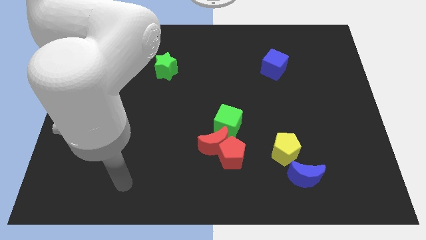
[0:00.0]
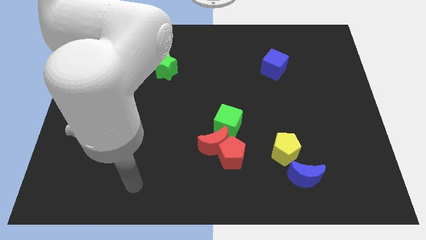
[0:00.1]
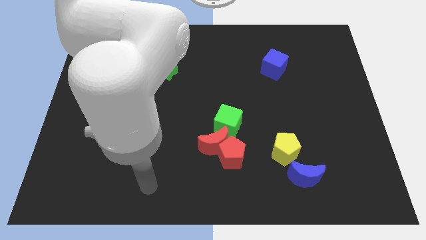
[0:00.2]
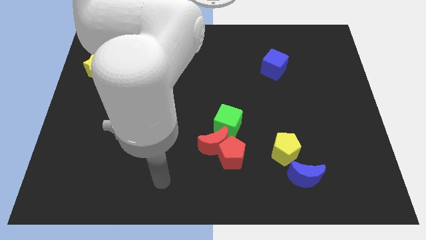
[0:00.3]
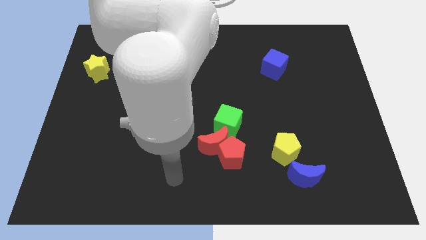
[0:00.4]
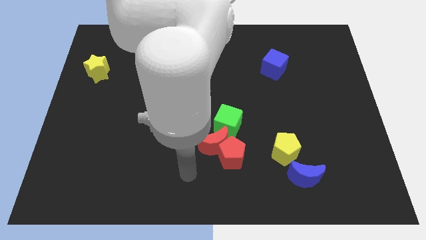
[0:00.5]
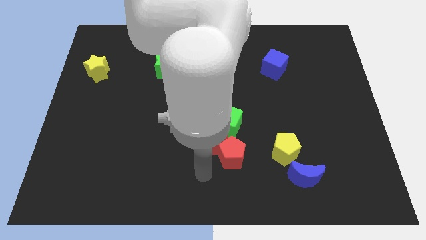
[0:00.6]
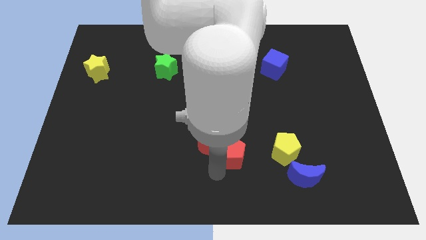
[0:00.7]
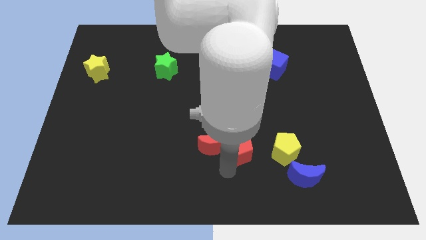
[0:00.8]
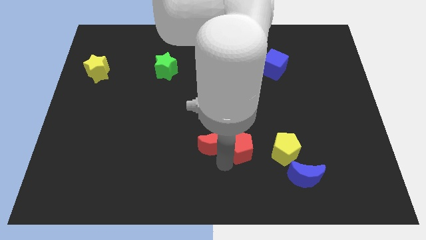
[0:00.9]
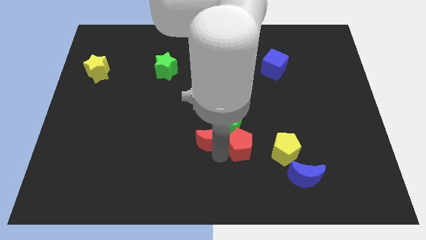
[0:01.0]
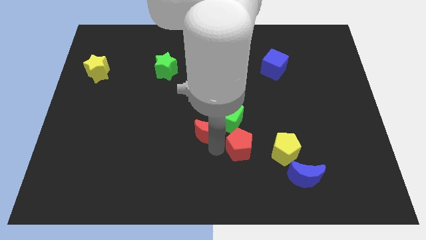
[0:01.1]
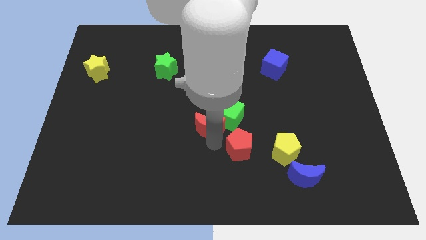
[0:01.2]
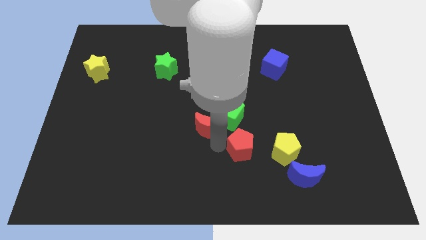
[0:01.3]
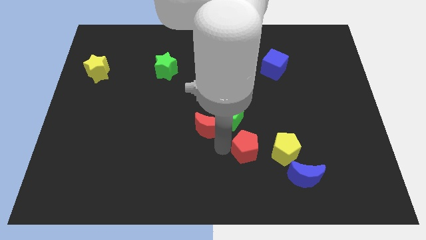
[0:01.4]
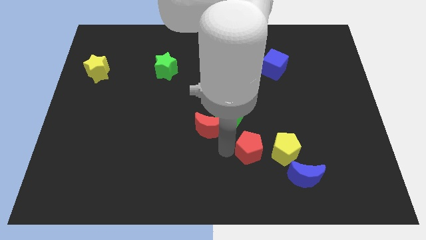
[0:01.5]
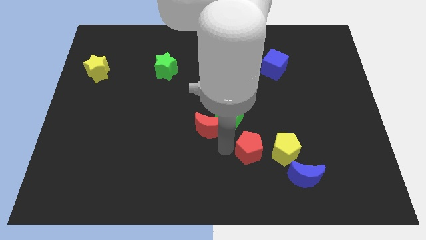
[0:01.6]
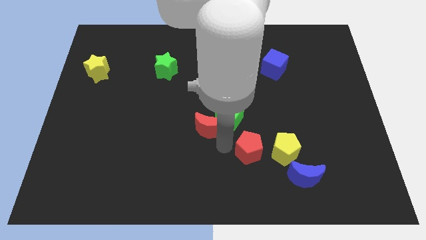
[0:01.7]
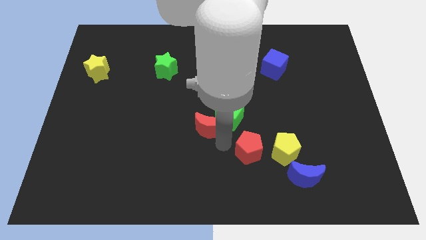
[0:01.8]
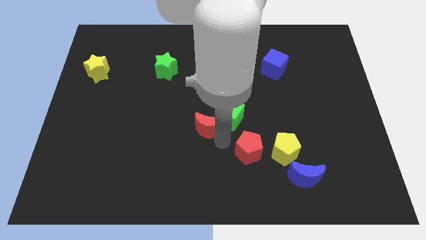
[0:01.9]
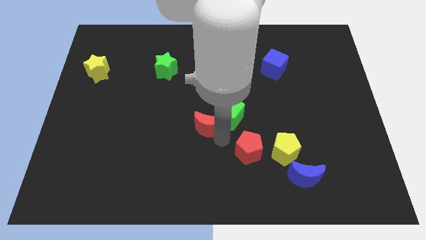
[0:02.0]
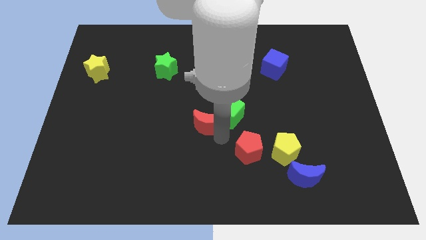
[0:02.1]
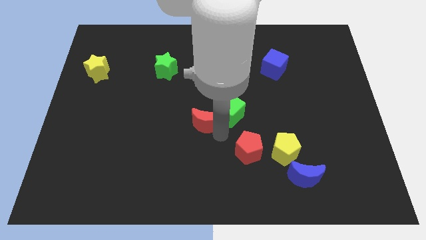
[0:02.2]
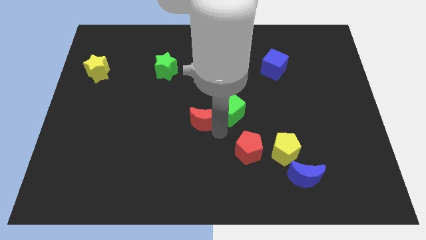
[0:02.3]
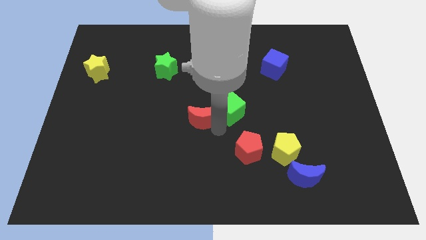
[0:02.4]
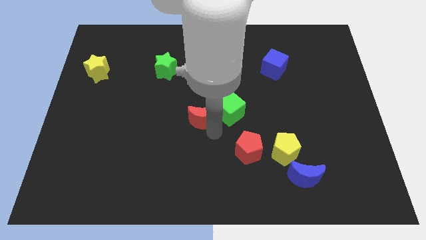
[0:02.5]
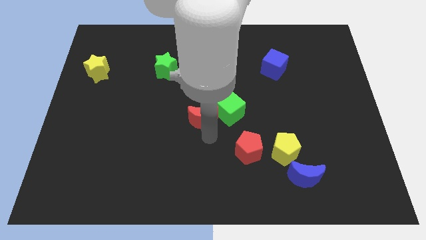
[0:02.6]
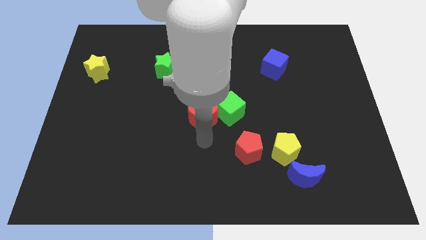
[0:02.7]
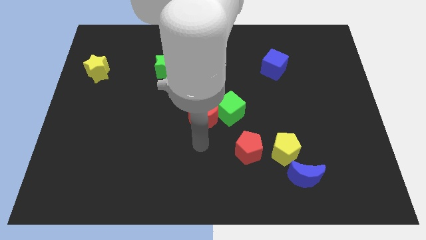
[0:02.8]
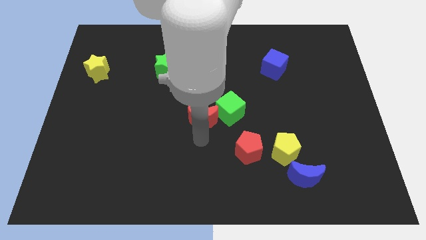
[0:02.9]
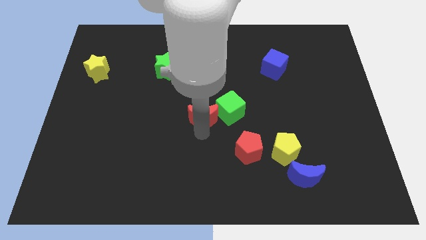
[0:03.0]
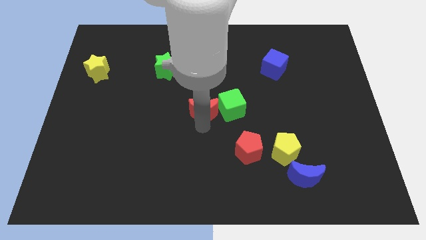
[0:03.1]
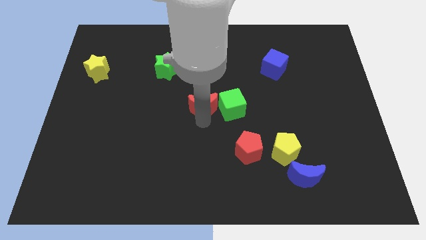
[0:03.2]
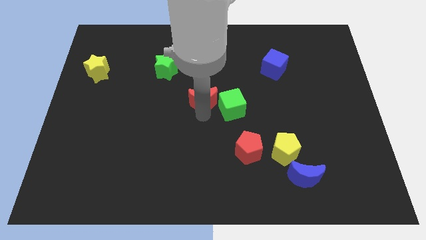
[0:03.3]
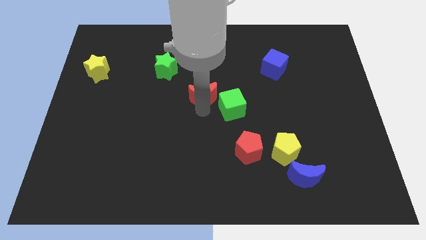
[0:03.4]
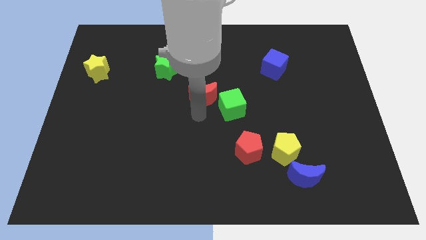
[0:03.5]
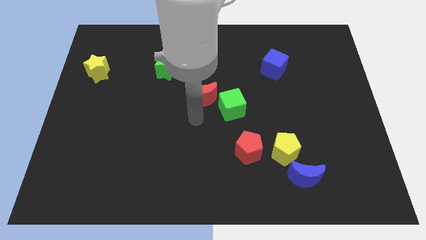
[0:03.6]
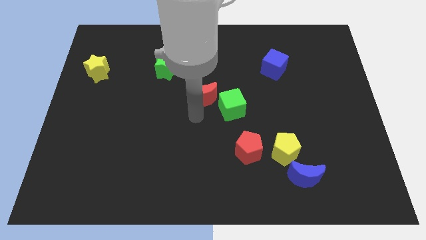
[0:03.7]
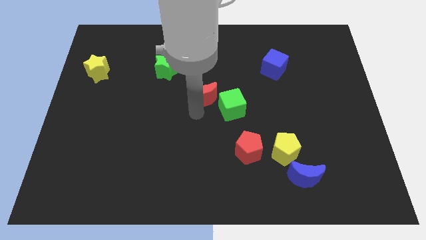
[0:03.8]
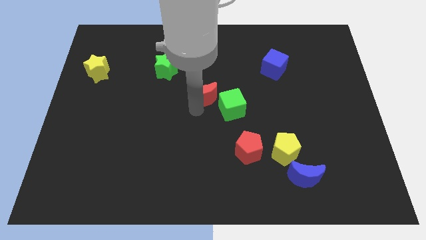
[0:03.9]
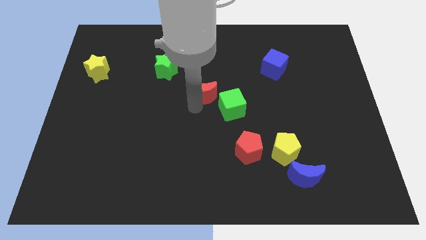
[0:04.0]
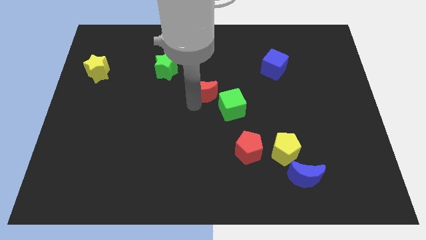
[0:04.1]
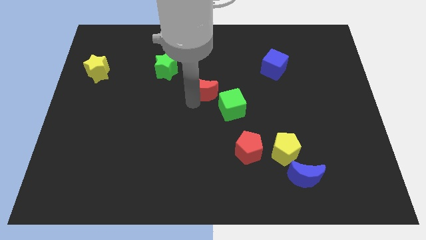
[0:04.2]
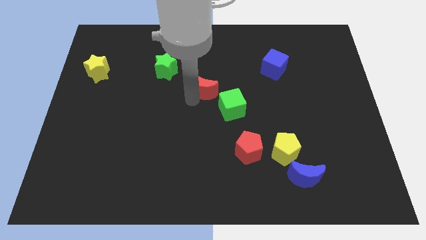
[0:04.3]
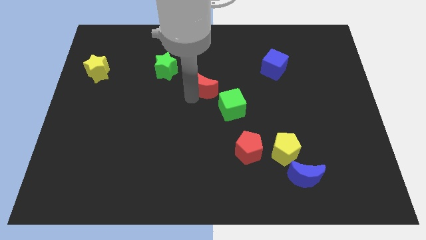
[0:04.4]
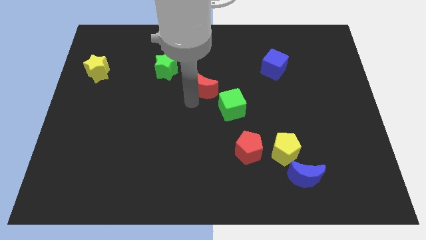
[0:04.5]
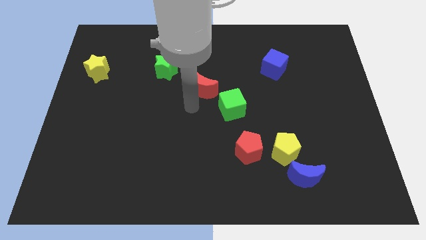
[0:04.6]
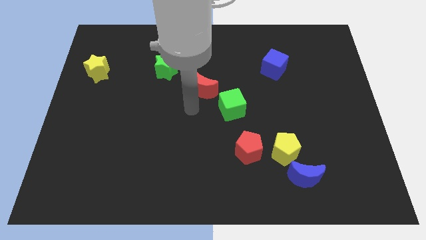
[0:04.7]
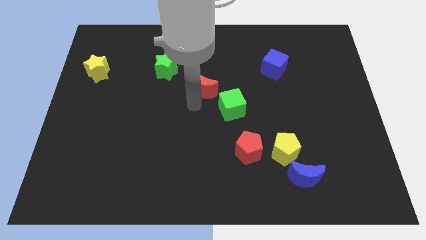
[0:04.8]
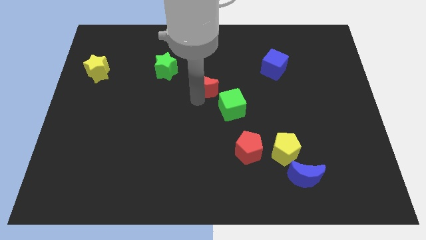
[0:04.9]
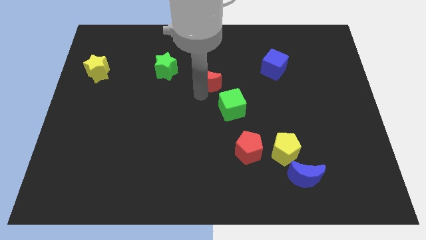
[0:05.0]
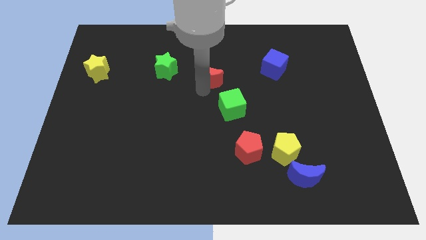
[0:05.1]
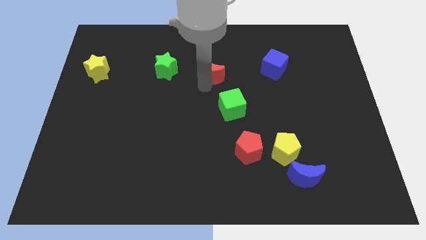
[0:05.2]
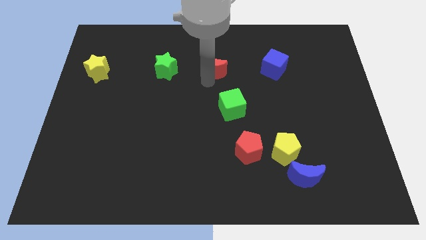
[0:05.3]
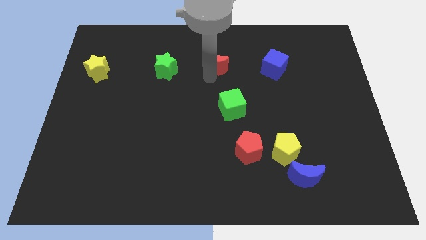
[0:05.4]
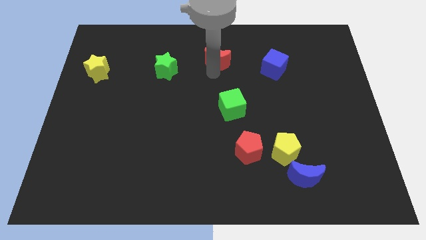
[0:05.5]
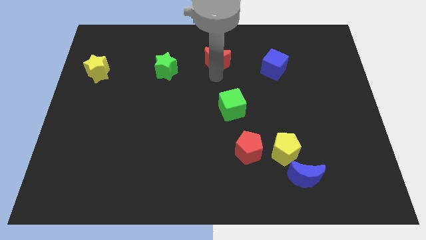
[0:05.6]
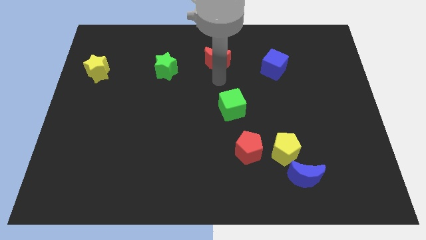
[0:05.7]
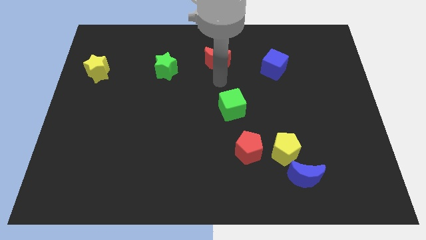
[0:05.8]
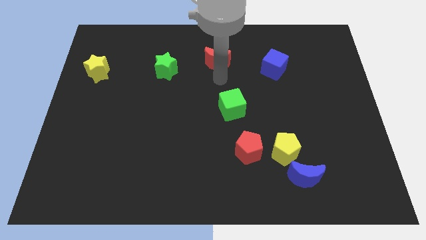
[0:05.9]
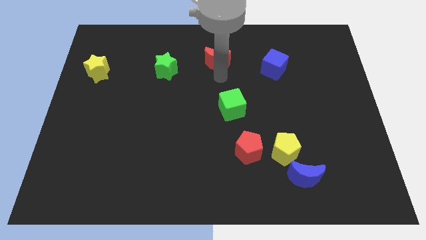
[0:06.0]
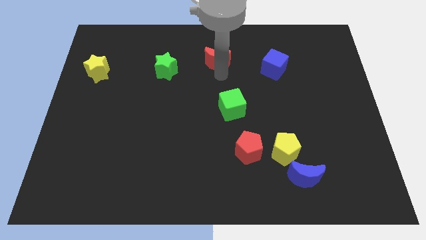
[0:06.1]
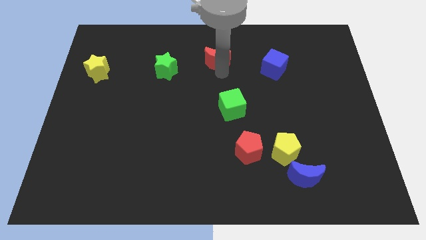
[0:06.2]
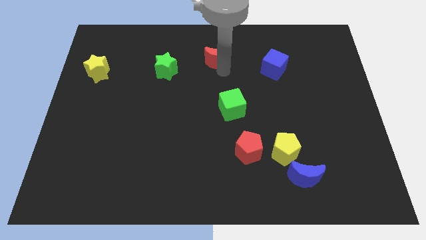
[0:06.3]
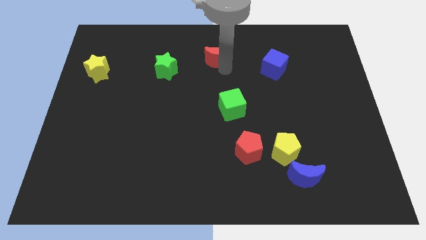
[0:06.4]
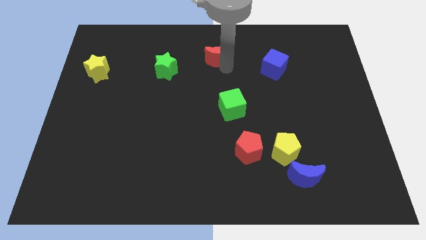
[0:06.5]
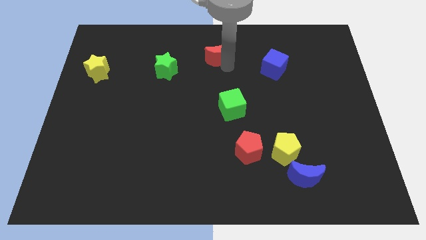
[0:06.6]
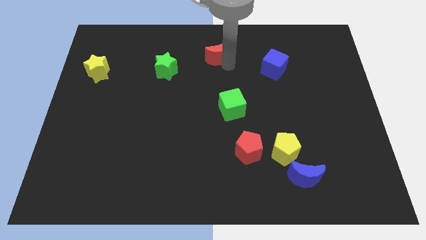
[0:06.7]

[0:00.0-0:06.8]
slide the red moon to the top side
